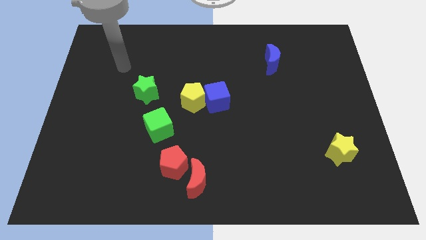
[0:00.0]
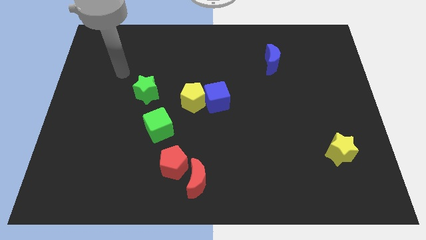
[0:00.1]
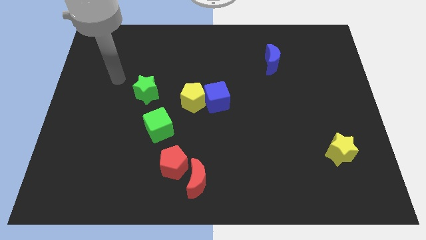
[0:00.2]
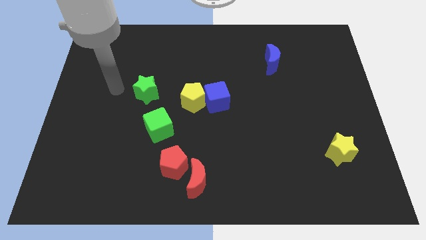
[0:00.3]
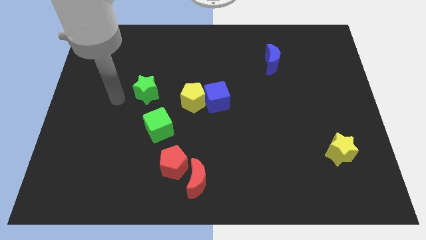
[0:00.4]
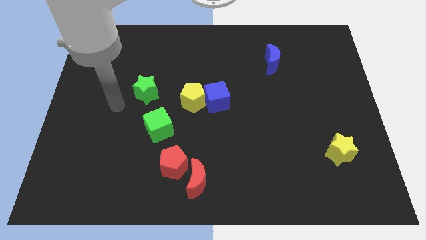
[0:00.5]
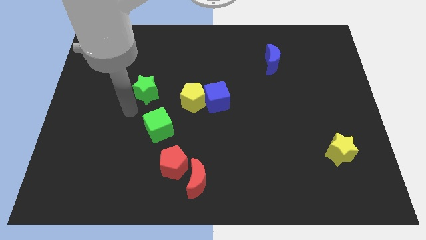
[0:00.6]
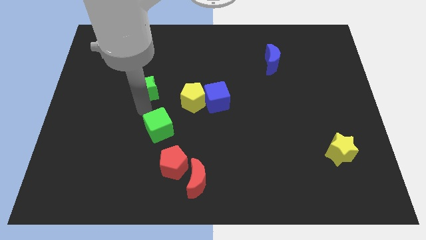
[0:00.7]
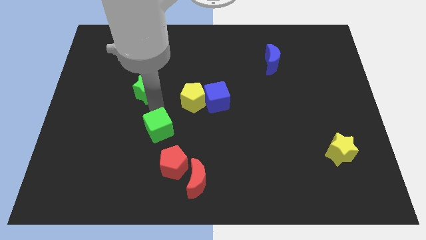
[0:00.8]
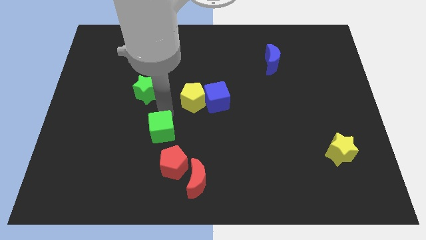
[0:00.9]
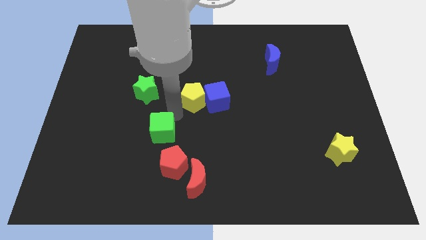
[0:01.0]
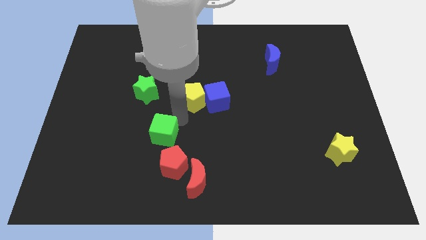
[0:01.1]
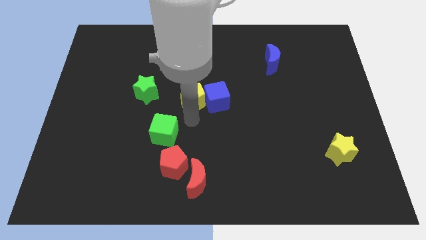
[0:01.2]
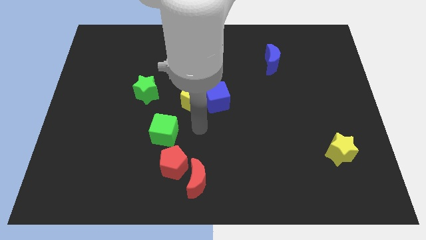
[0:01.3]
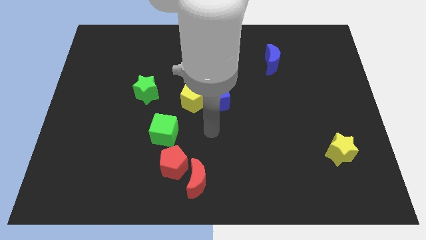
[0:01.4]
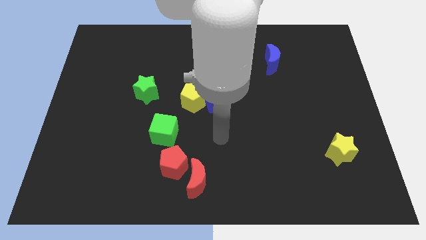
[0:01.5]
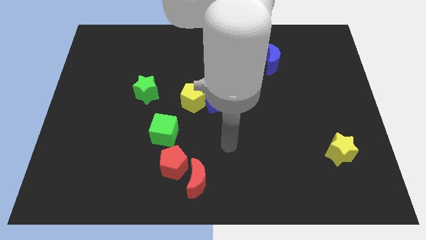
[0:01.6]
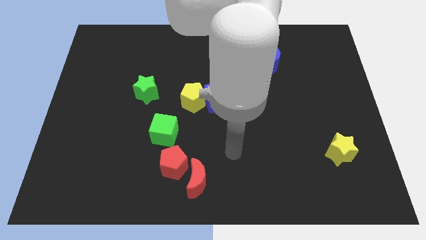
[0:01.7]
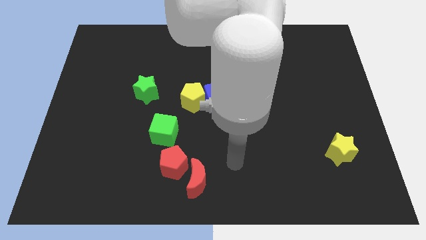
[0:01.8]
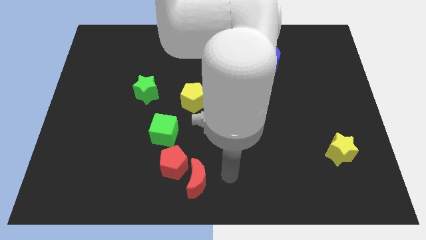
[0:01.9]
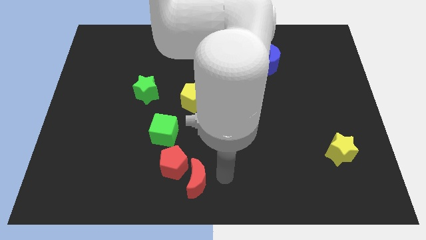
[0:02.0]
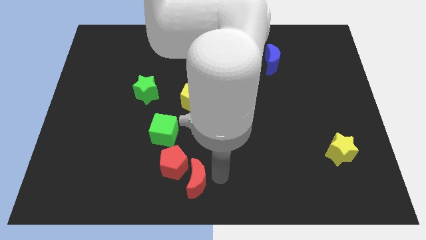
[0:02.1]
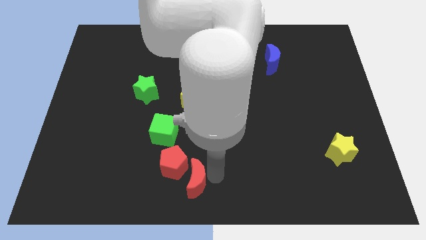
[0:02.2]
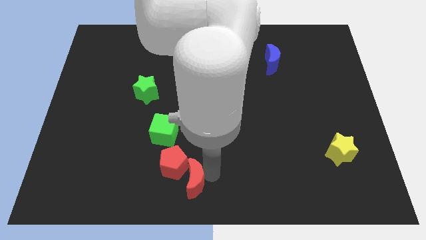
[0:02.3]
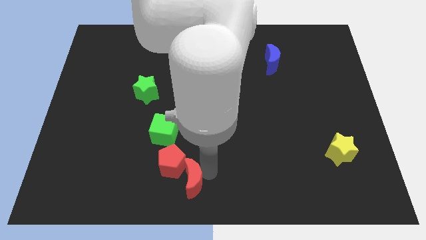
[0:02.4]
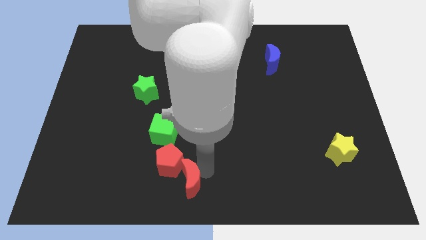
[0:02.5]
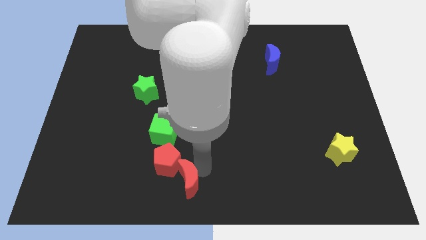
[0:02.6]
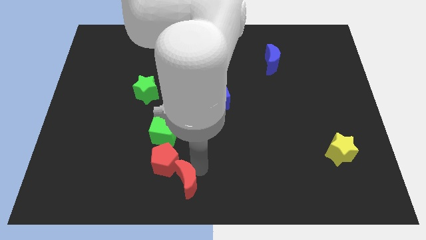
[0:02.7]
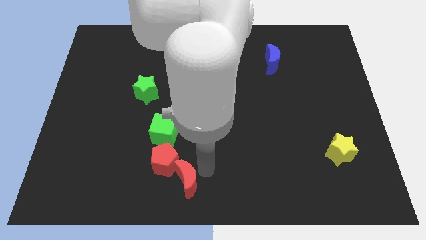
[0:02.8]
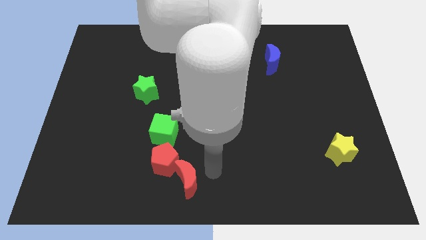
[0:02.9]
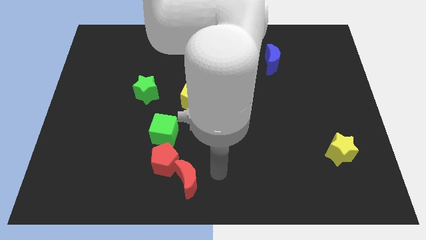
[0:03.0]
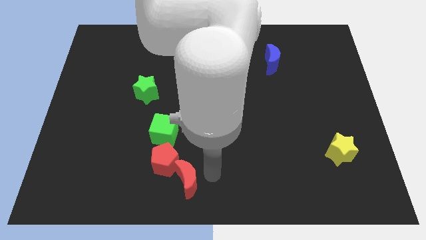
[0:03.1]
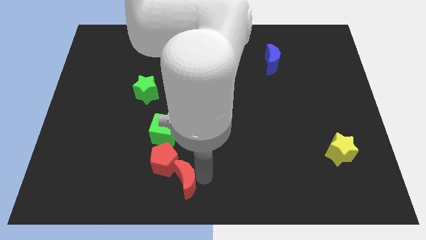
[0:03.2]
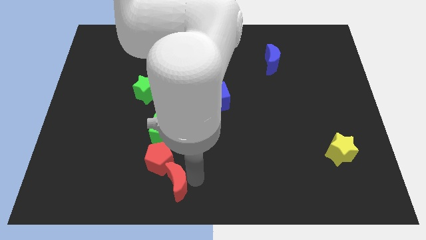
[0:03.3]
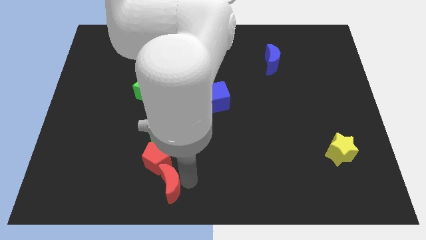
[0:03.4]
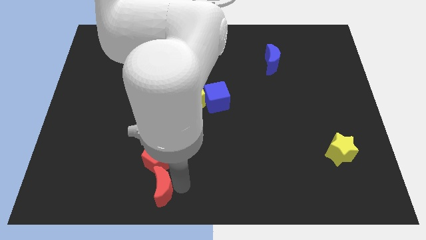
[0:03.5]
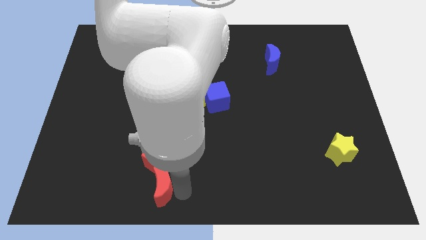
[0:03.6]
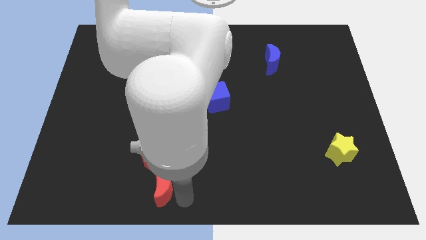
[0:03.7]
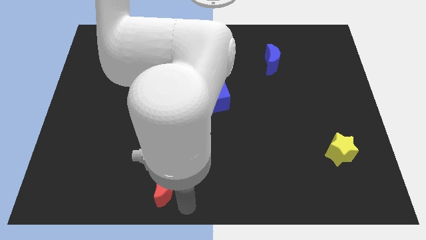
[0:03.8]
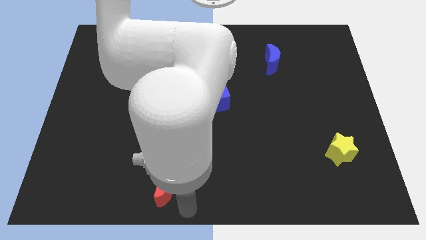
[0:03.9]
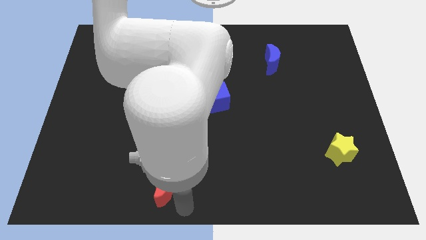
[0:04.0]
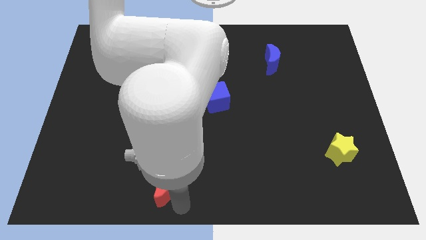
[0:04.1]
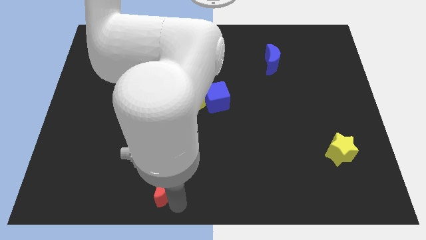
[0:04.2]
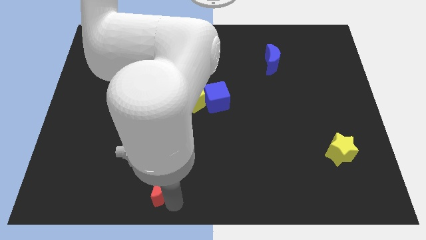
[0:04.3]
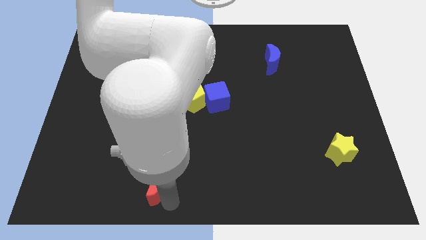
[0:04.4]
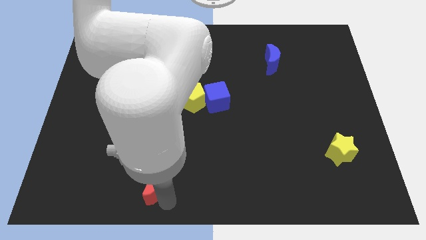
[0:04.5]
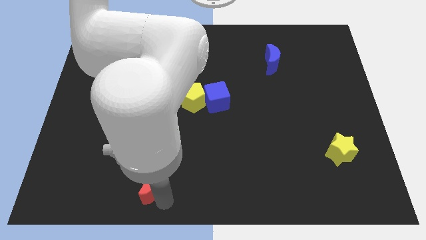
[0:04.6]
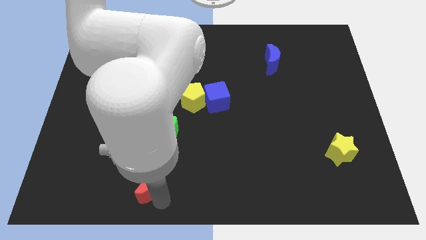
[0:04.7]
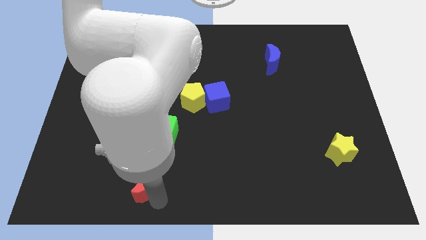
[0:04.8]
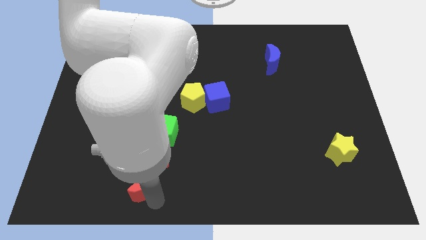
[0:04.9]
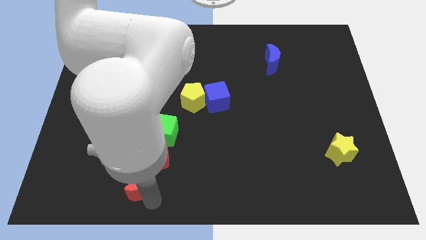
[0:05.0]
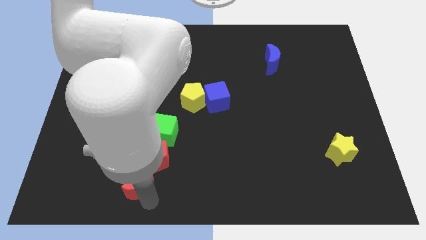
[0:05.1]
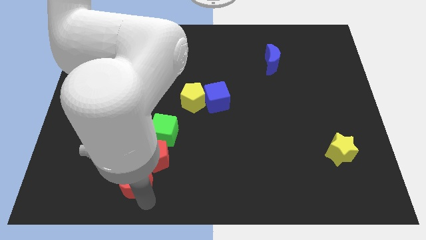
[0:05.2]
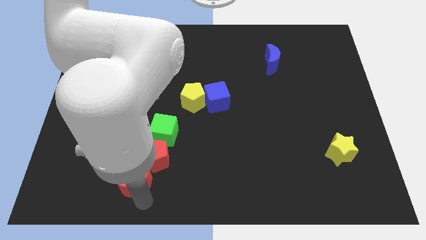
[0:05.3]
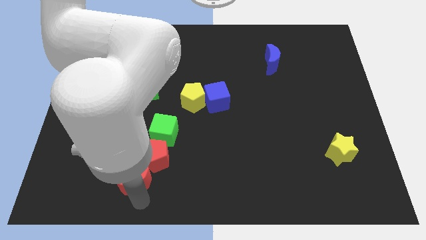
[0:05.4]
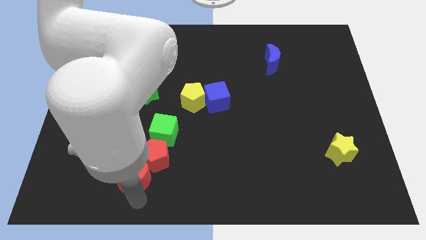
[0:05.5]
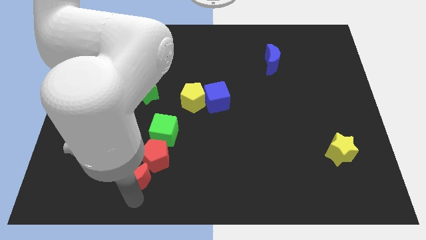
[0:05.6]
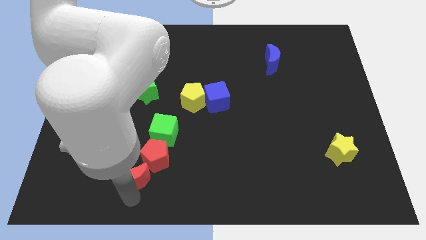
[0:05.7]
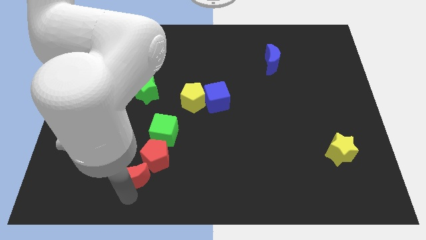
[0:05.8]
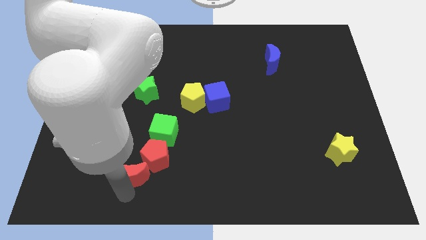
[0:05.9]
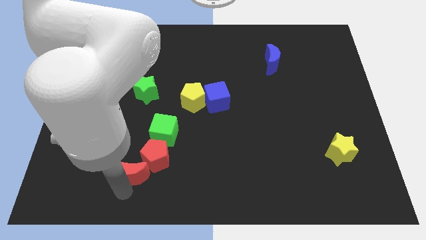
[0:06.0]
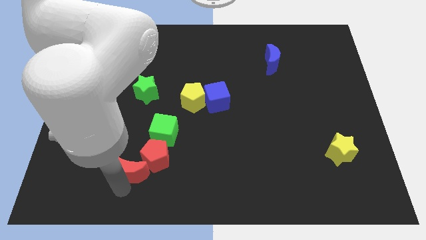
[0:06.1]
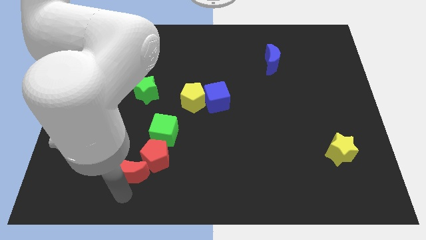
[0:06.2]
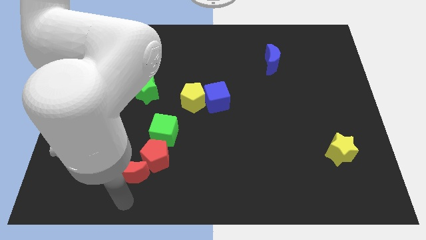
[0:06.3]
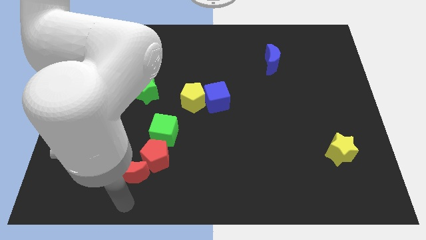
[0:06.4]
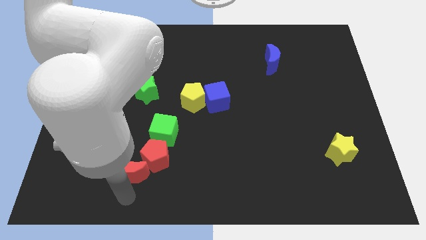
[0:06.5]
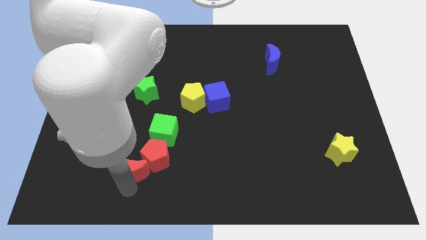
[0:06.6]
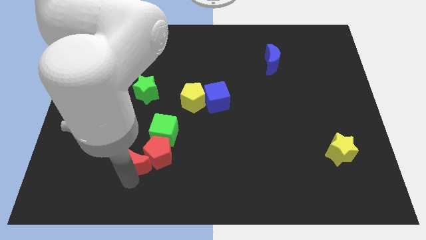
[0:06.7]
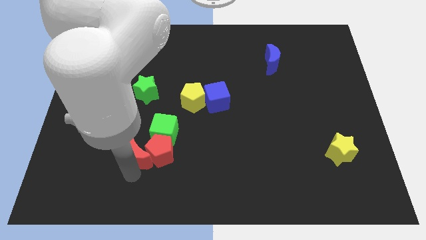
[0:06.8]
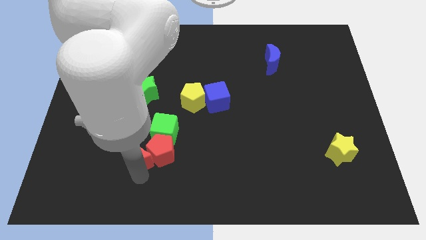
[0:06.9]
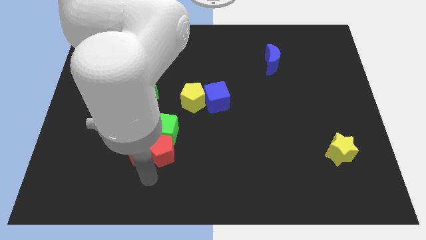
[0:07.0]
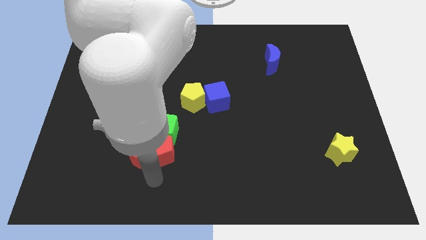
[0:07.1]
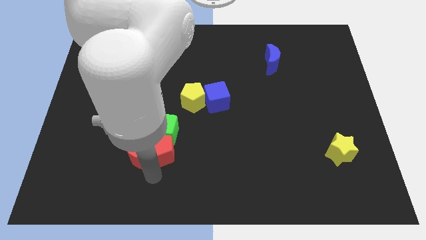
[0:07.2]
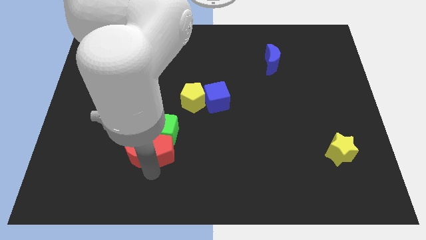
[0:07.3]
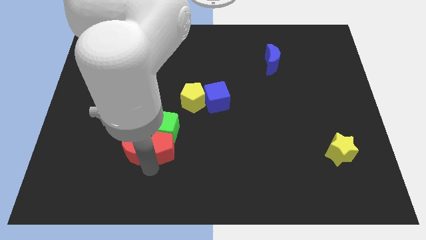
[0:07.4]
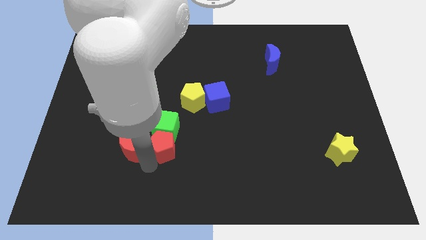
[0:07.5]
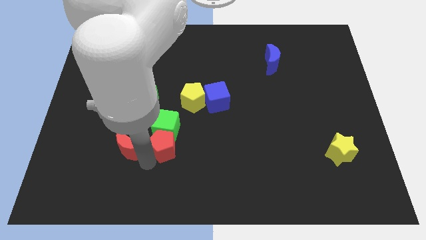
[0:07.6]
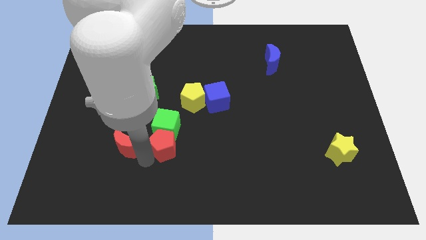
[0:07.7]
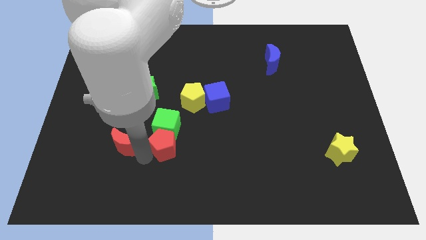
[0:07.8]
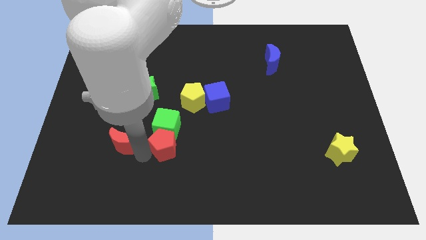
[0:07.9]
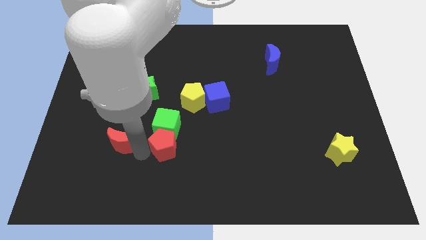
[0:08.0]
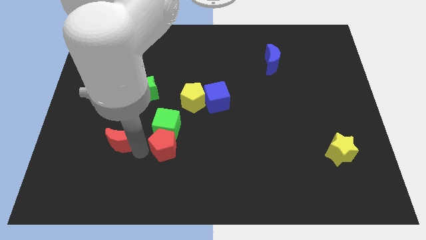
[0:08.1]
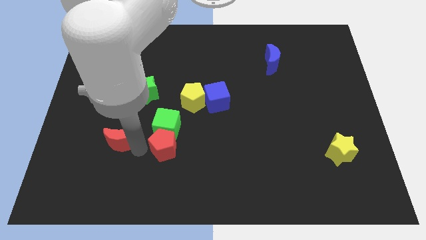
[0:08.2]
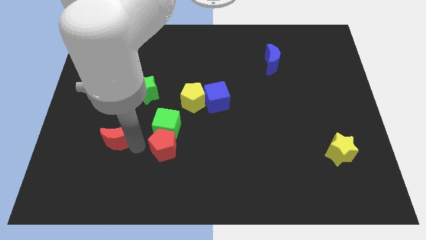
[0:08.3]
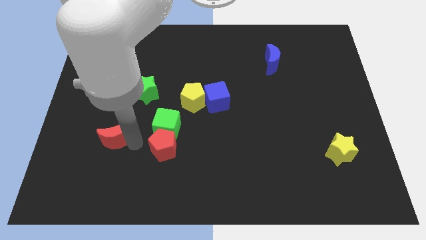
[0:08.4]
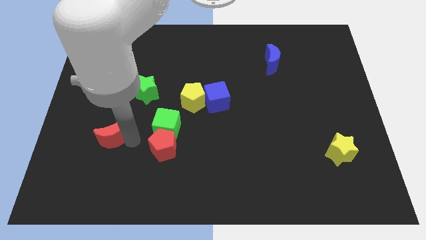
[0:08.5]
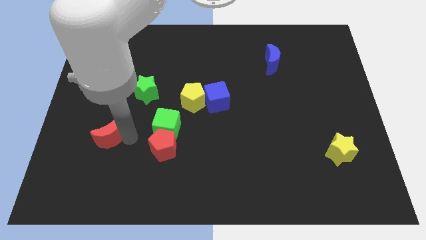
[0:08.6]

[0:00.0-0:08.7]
slide the red moon diagonally up and to the left
